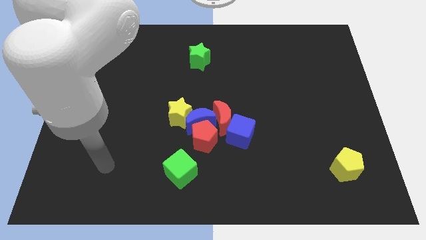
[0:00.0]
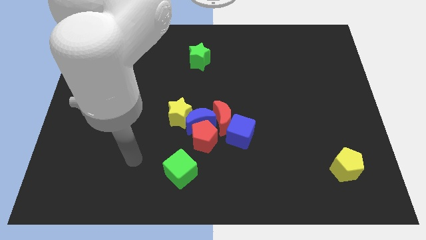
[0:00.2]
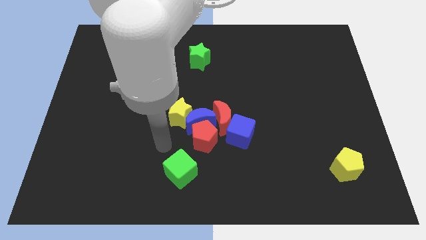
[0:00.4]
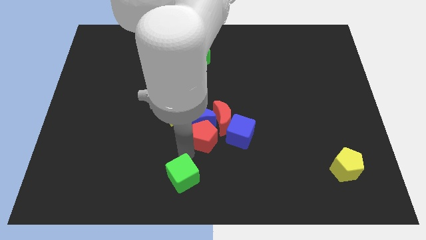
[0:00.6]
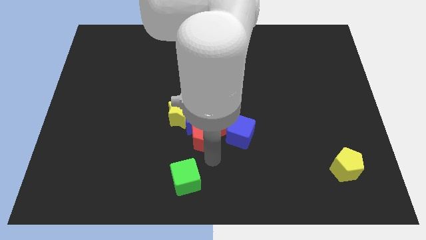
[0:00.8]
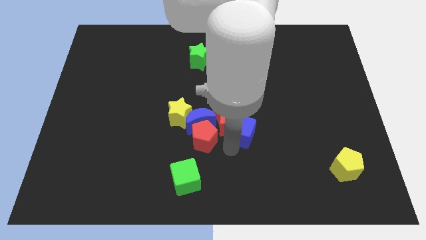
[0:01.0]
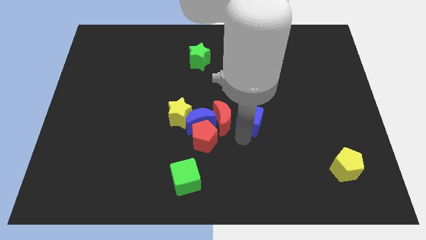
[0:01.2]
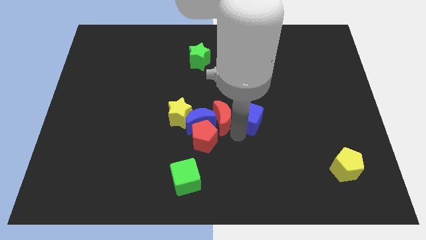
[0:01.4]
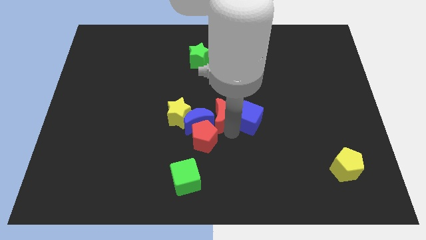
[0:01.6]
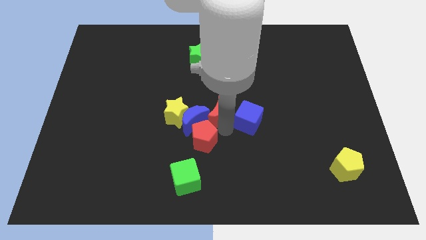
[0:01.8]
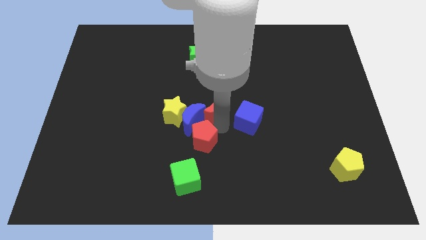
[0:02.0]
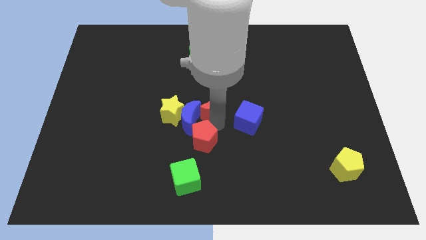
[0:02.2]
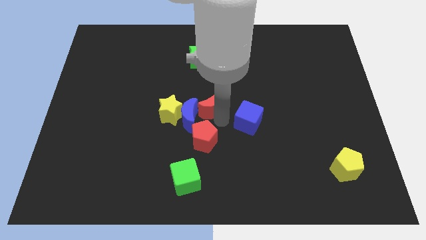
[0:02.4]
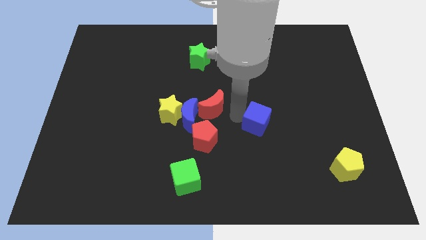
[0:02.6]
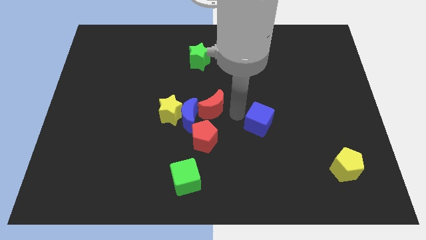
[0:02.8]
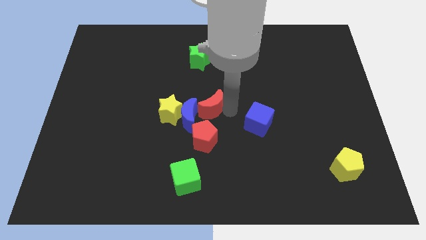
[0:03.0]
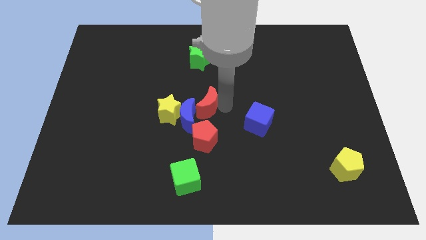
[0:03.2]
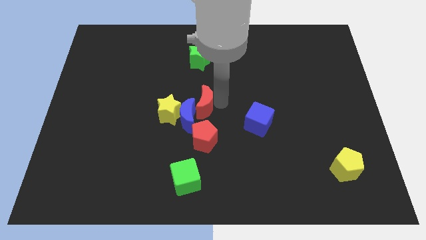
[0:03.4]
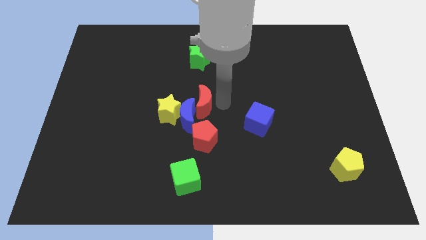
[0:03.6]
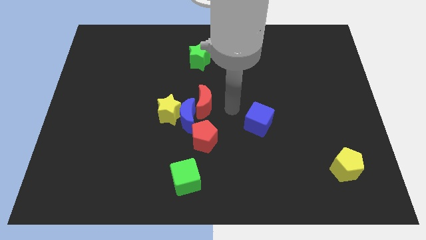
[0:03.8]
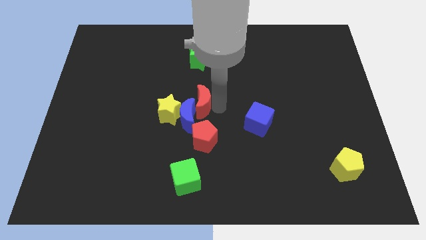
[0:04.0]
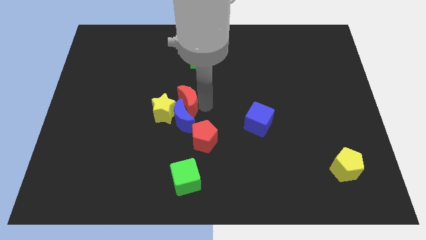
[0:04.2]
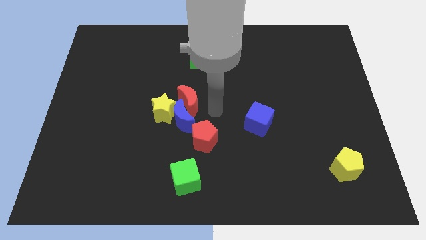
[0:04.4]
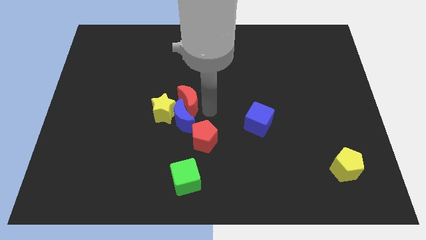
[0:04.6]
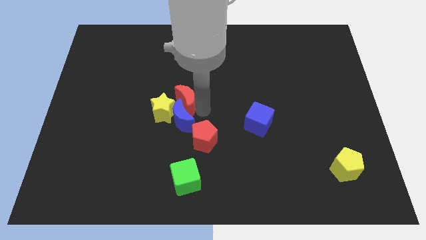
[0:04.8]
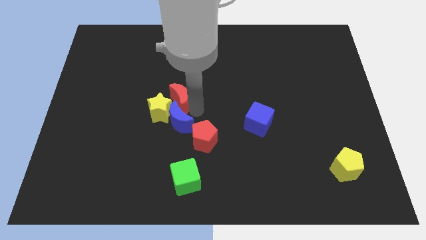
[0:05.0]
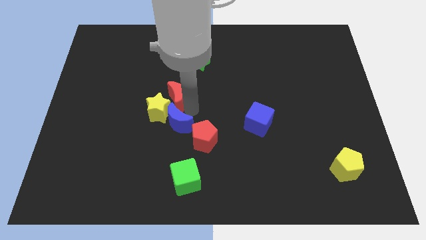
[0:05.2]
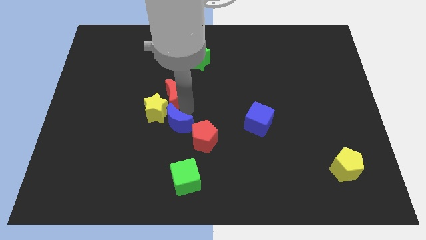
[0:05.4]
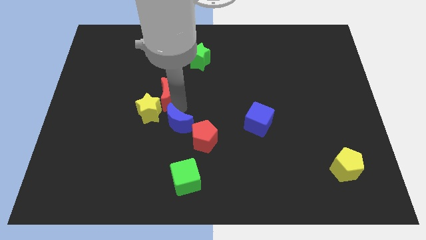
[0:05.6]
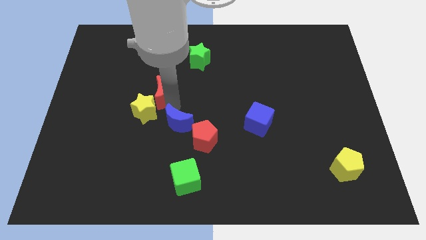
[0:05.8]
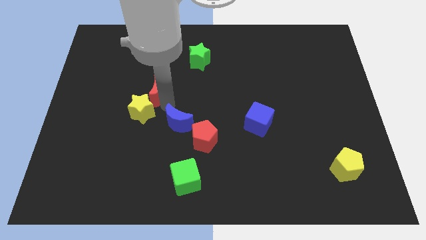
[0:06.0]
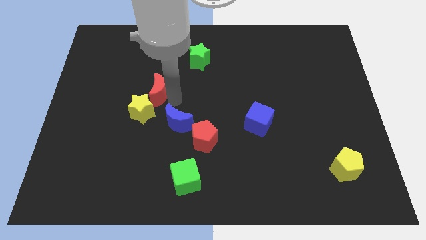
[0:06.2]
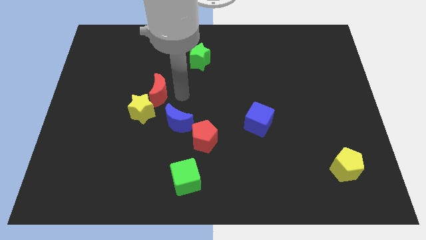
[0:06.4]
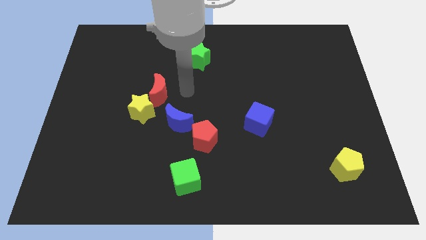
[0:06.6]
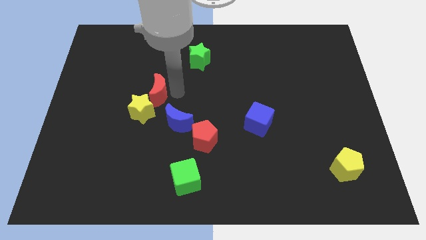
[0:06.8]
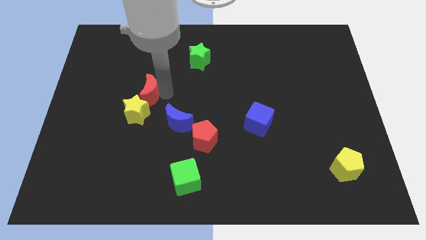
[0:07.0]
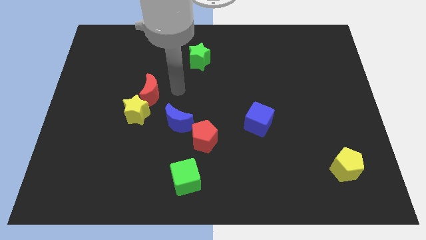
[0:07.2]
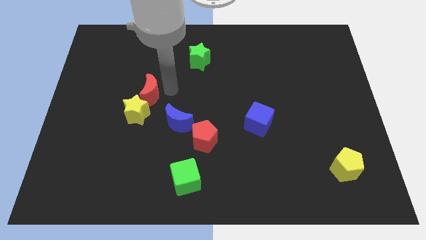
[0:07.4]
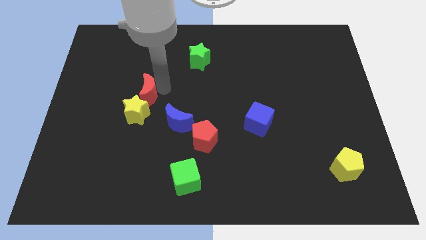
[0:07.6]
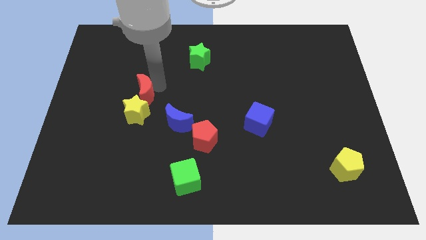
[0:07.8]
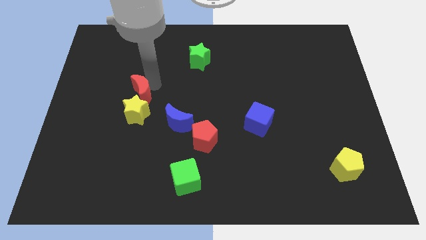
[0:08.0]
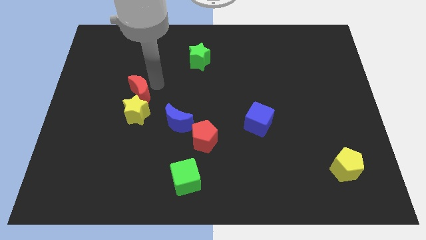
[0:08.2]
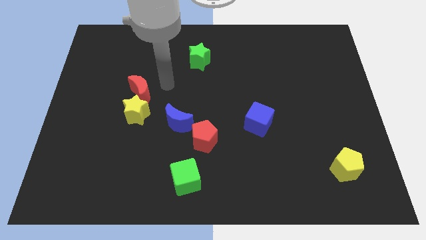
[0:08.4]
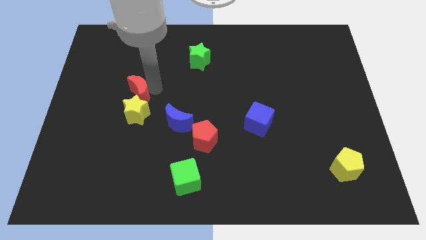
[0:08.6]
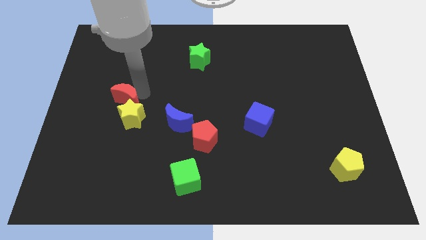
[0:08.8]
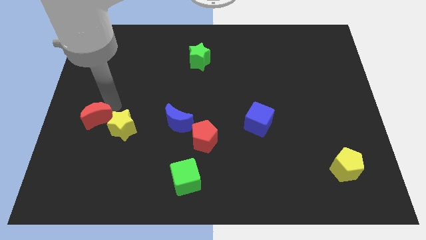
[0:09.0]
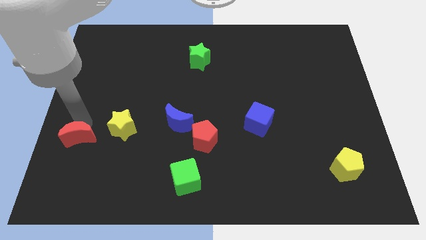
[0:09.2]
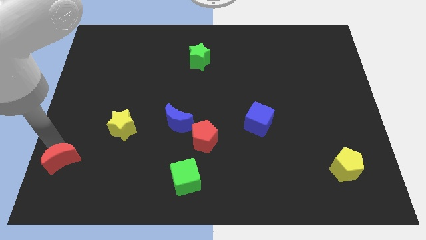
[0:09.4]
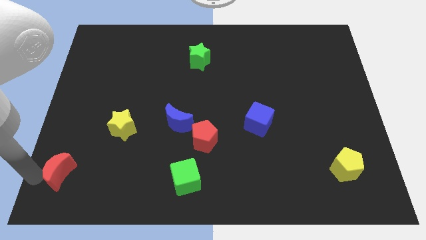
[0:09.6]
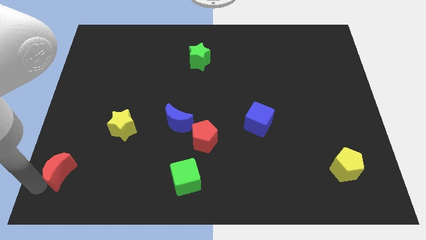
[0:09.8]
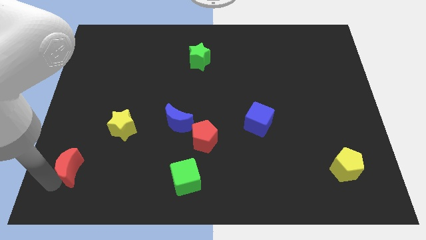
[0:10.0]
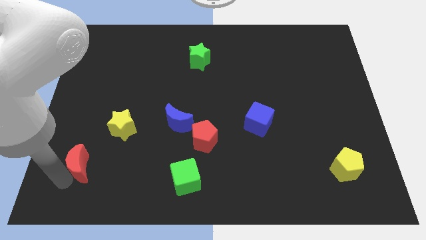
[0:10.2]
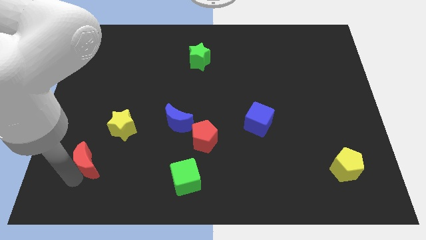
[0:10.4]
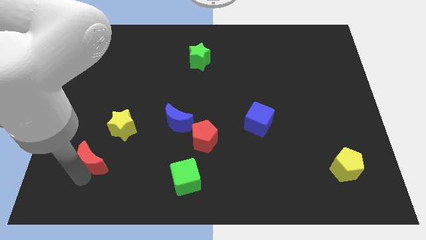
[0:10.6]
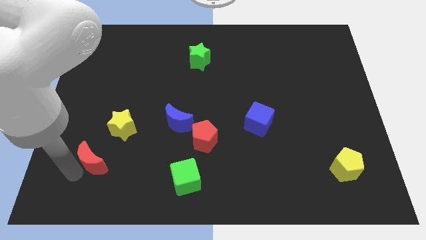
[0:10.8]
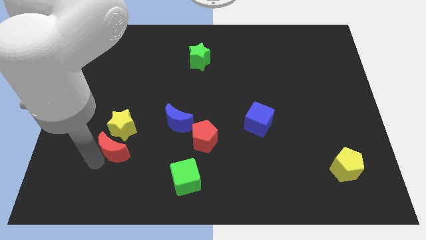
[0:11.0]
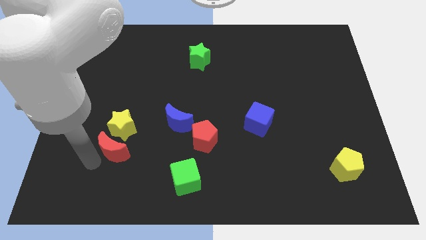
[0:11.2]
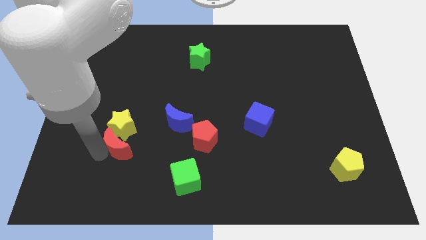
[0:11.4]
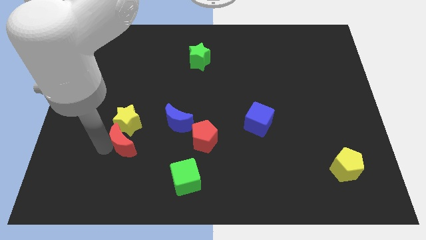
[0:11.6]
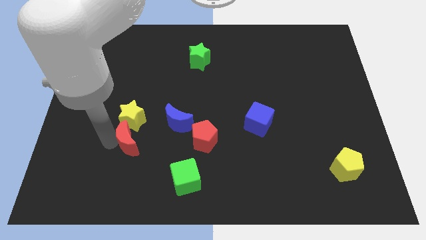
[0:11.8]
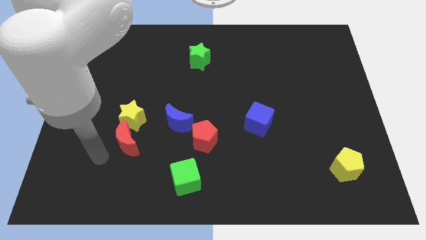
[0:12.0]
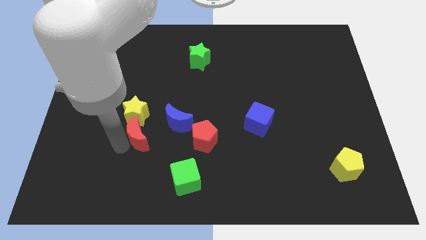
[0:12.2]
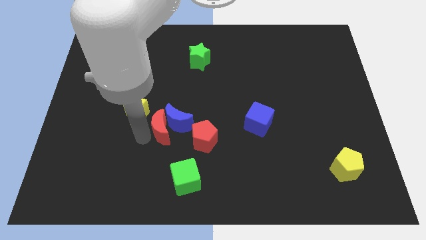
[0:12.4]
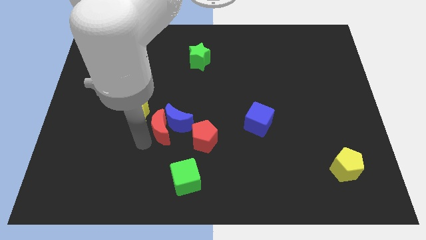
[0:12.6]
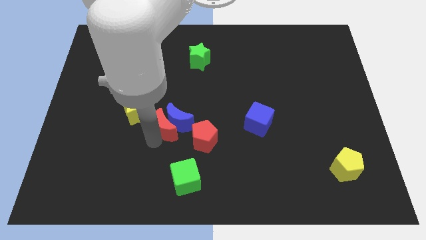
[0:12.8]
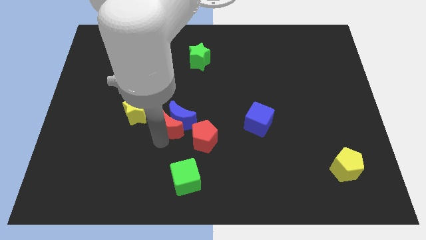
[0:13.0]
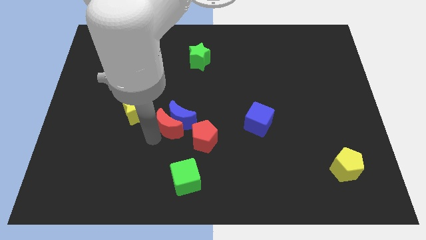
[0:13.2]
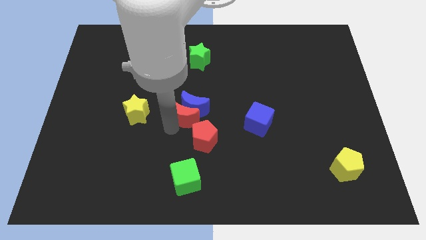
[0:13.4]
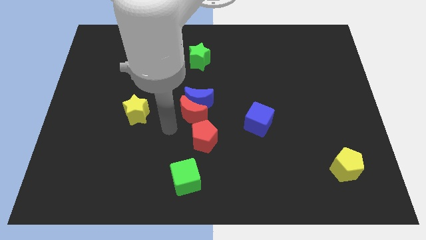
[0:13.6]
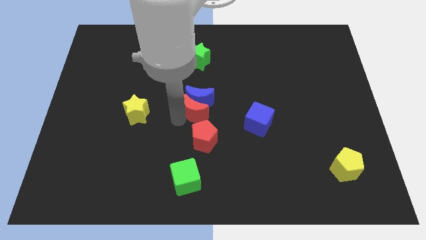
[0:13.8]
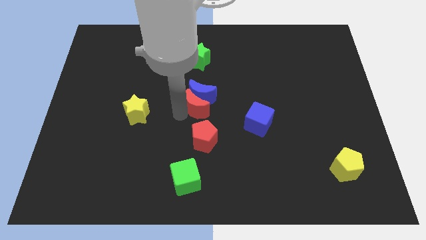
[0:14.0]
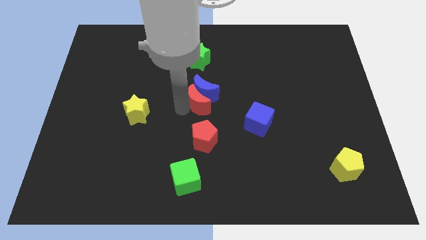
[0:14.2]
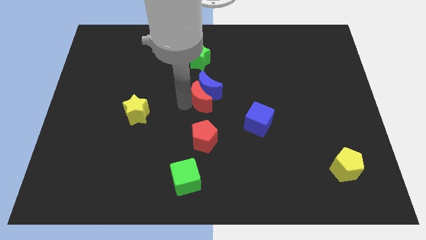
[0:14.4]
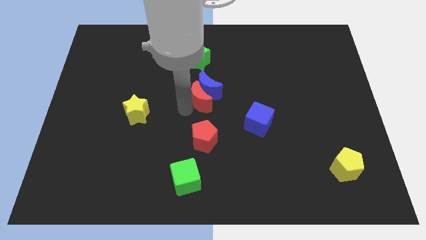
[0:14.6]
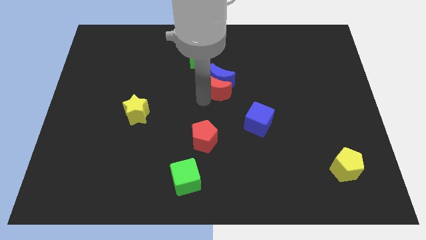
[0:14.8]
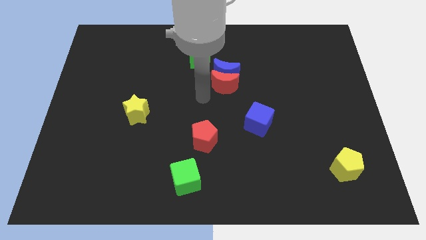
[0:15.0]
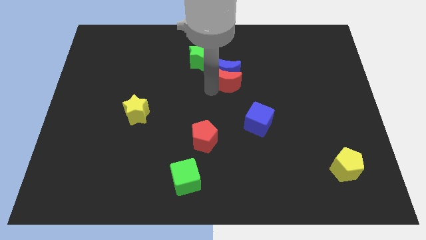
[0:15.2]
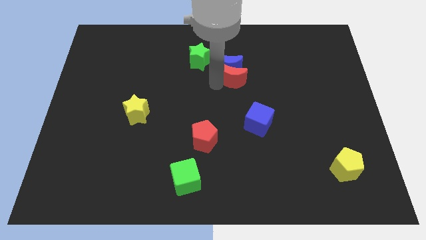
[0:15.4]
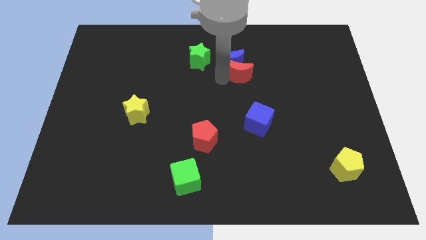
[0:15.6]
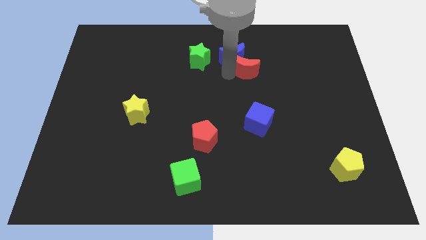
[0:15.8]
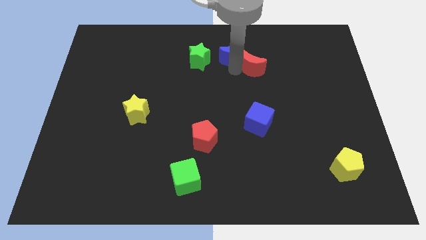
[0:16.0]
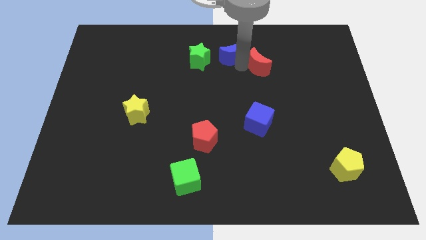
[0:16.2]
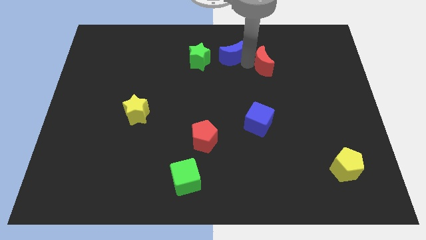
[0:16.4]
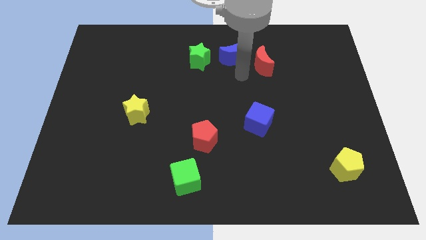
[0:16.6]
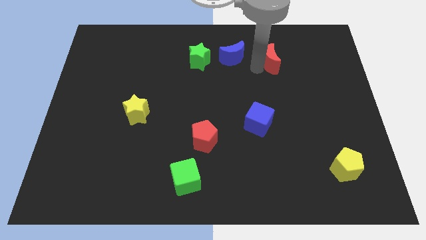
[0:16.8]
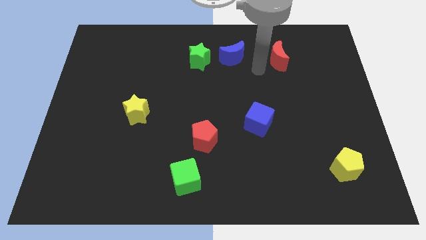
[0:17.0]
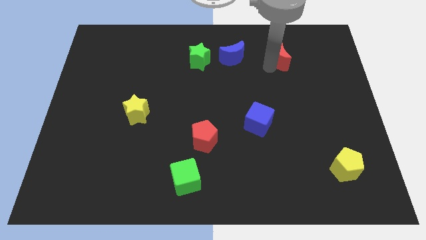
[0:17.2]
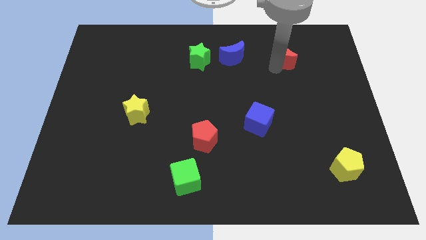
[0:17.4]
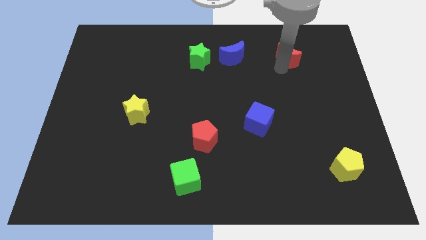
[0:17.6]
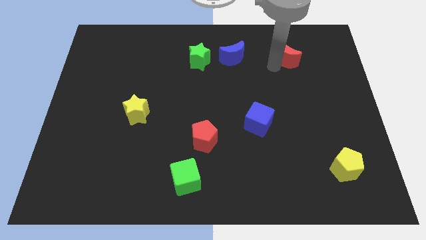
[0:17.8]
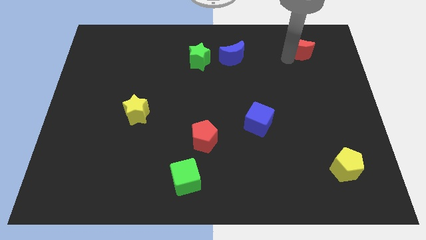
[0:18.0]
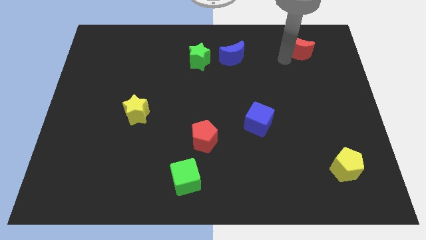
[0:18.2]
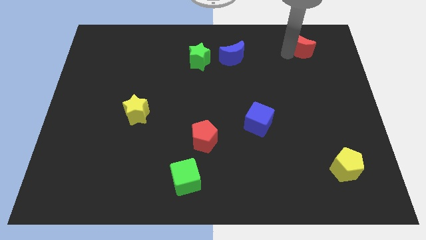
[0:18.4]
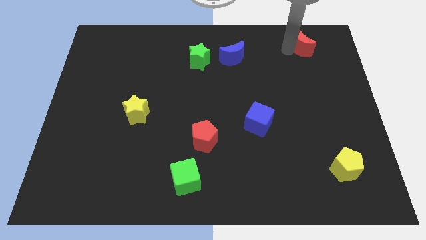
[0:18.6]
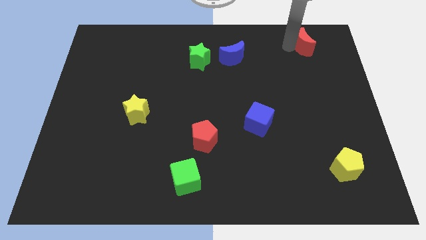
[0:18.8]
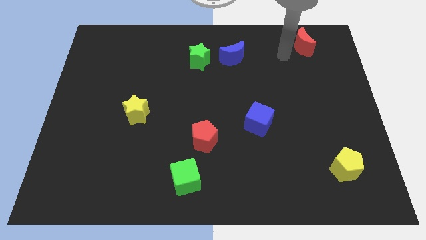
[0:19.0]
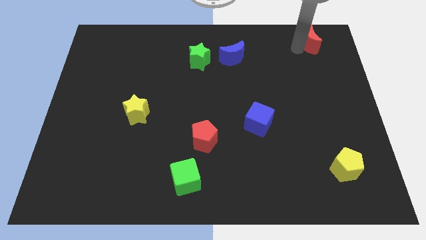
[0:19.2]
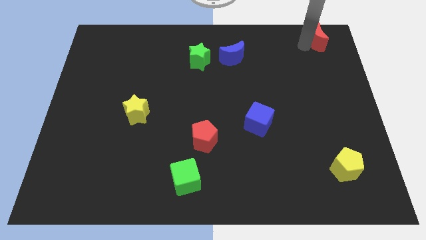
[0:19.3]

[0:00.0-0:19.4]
move the red moon to the top right of the board
